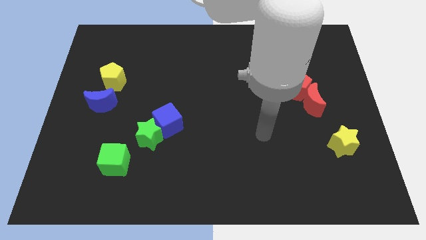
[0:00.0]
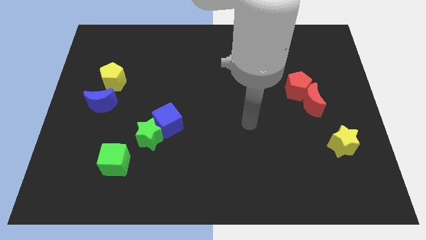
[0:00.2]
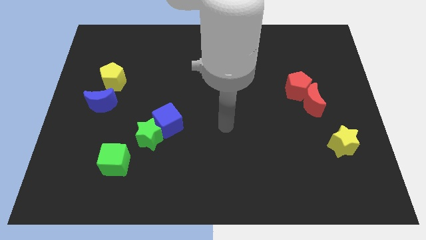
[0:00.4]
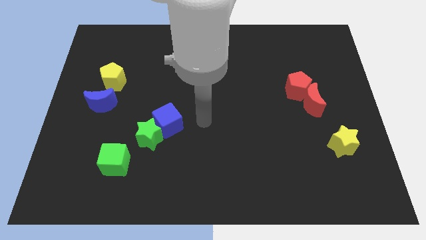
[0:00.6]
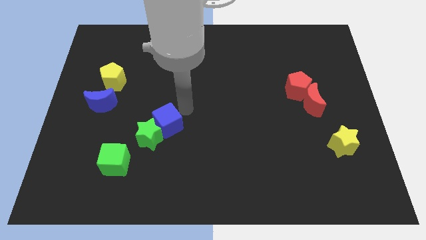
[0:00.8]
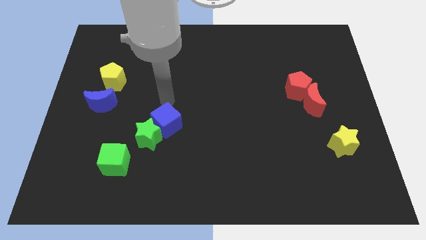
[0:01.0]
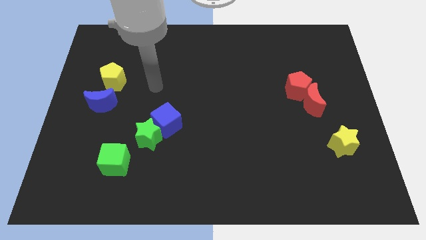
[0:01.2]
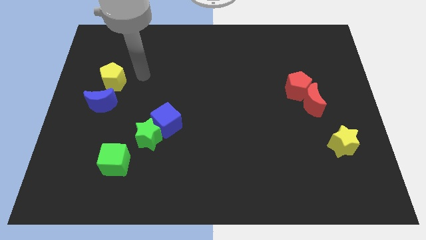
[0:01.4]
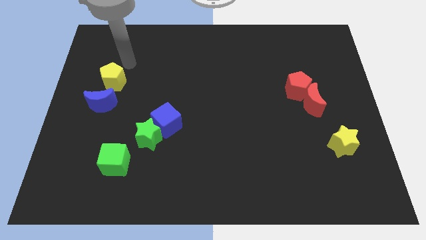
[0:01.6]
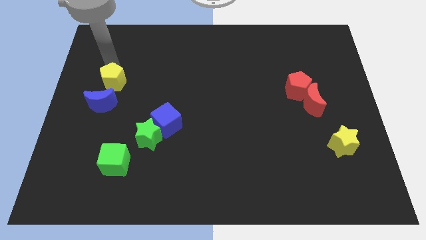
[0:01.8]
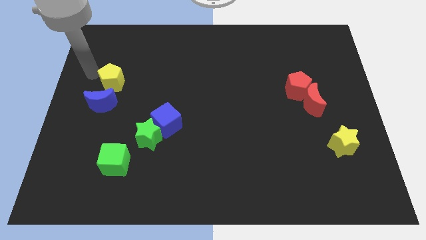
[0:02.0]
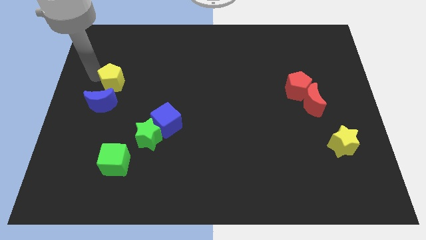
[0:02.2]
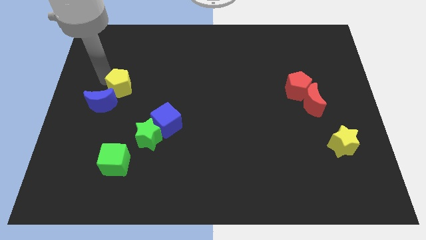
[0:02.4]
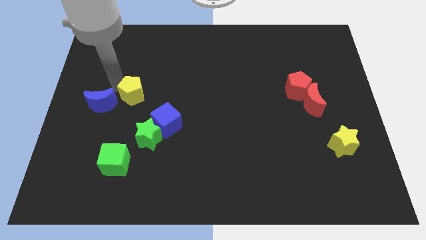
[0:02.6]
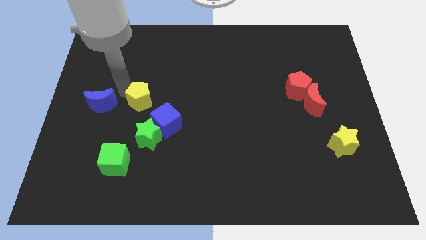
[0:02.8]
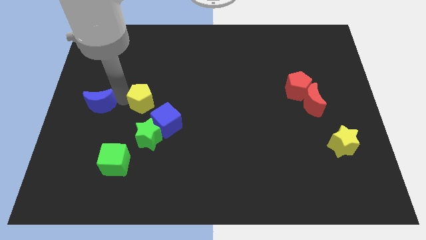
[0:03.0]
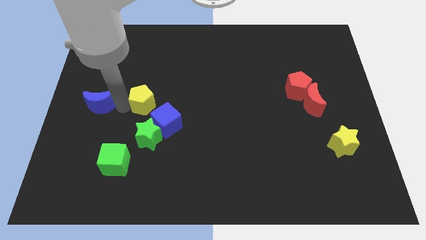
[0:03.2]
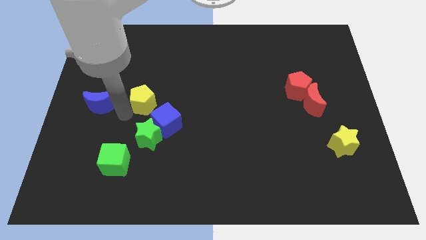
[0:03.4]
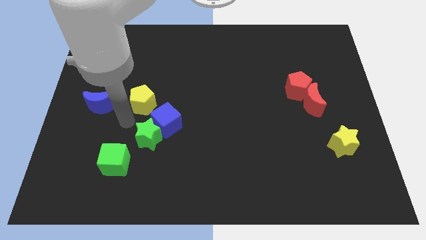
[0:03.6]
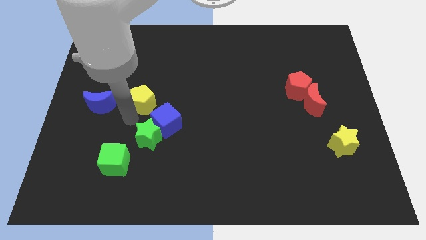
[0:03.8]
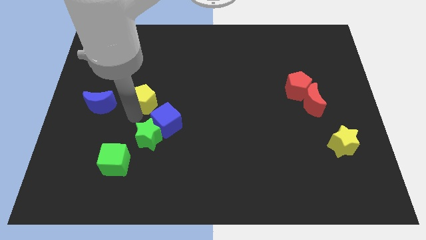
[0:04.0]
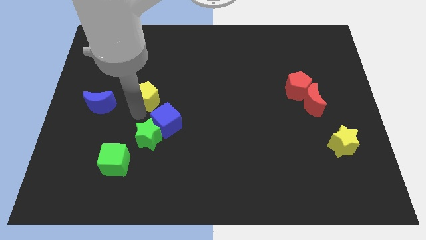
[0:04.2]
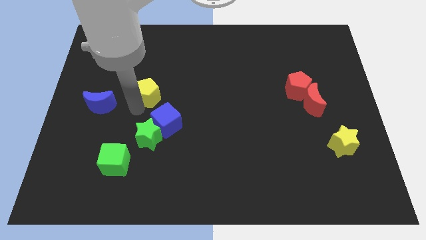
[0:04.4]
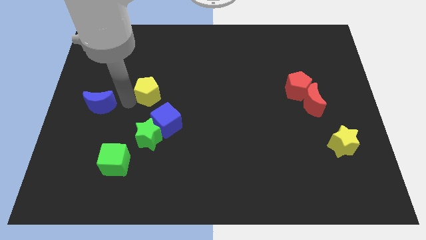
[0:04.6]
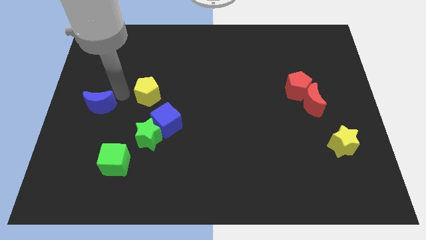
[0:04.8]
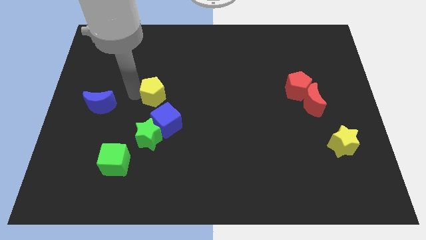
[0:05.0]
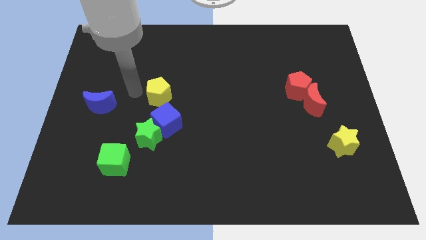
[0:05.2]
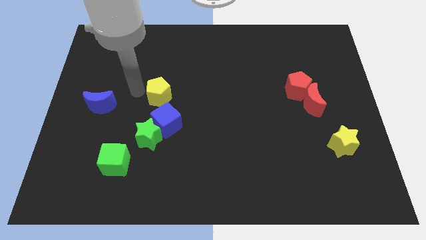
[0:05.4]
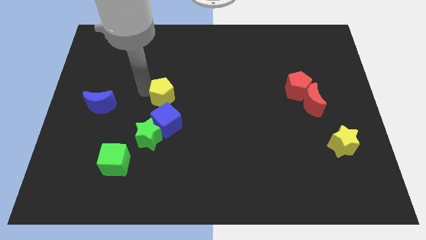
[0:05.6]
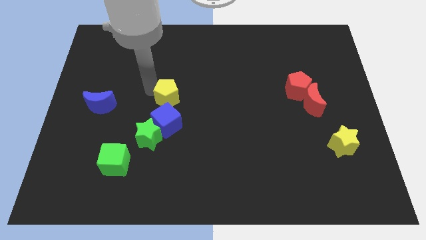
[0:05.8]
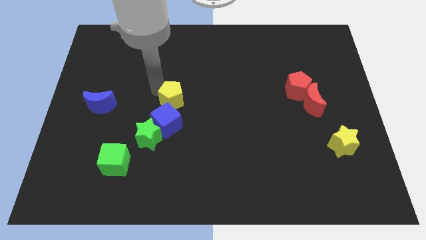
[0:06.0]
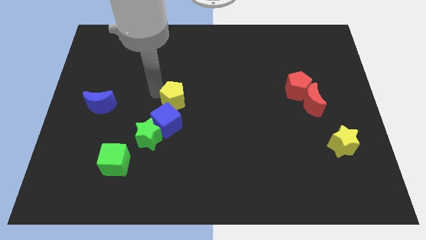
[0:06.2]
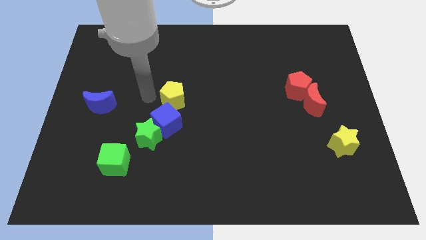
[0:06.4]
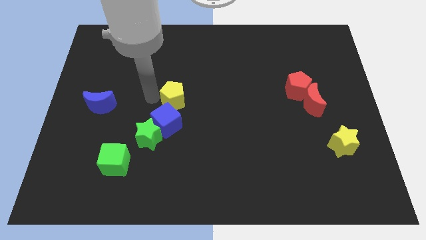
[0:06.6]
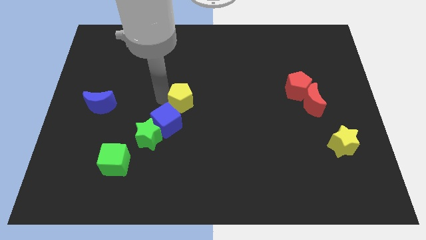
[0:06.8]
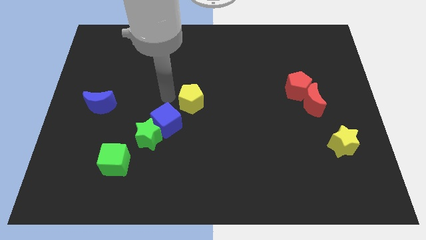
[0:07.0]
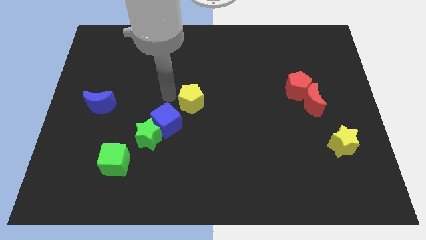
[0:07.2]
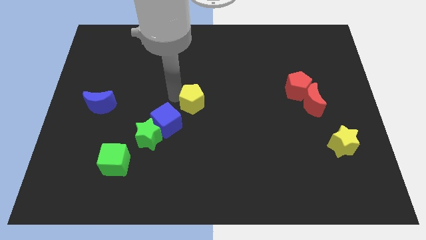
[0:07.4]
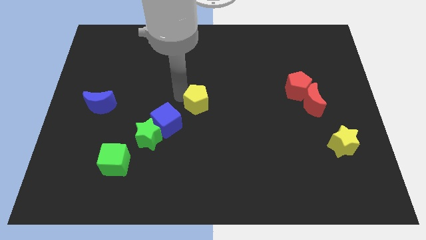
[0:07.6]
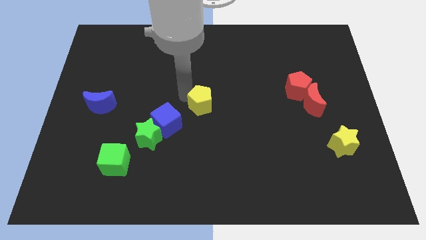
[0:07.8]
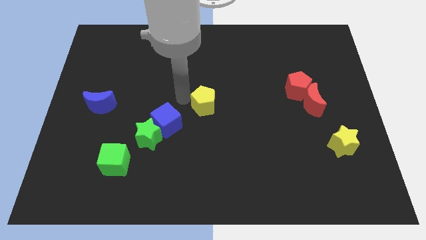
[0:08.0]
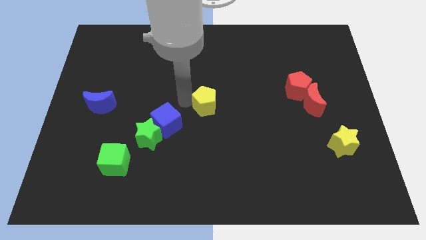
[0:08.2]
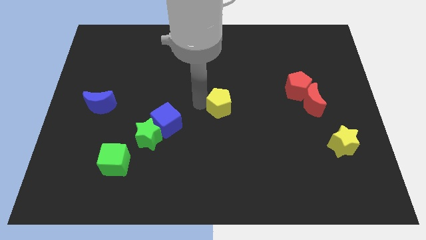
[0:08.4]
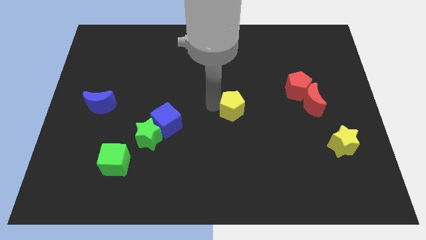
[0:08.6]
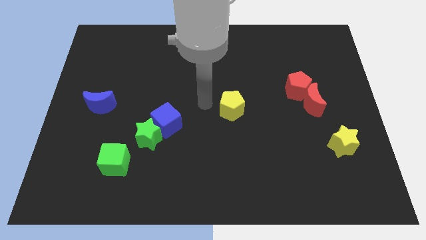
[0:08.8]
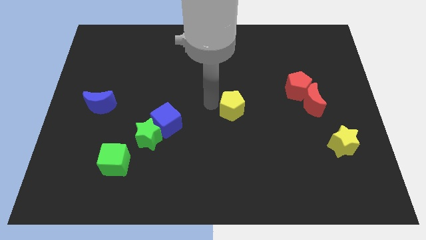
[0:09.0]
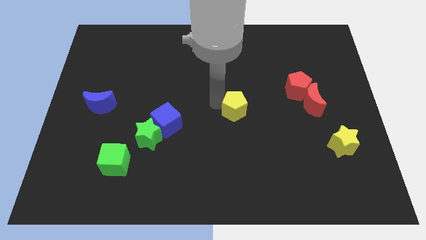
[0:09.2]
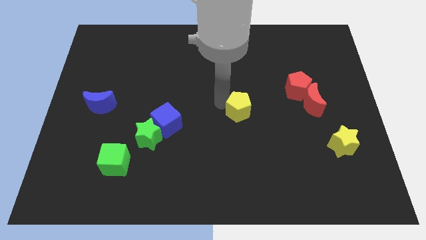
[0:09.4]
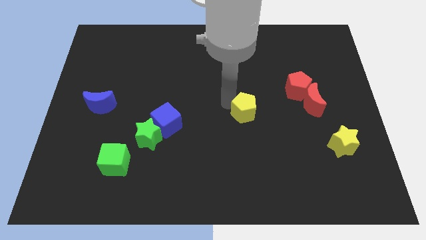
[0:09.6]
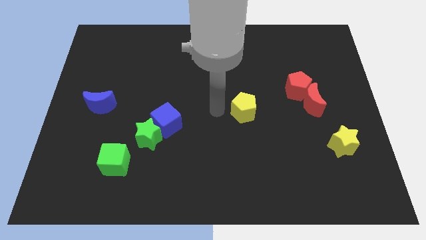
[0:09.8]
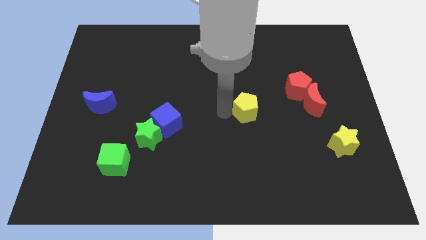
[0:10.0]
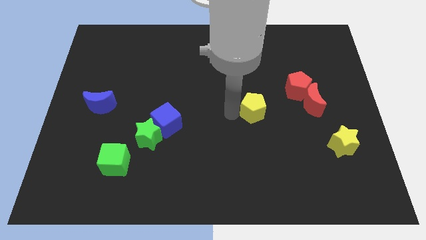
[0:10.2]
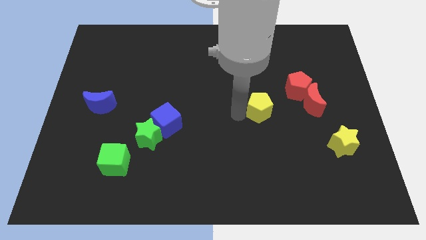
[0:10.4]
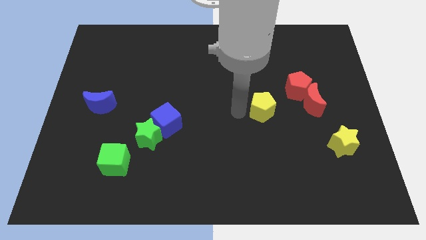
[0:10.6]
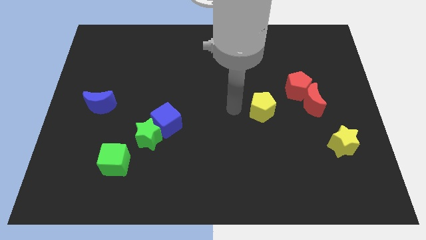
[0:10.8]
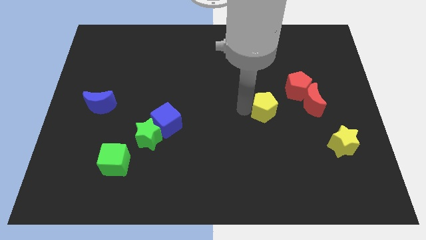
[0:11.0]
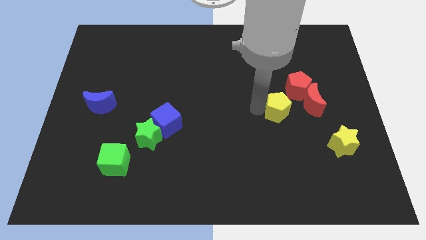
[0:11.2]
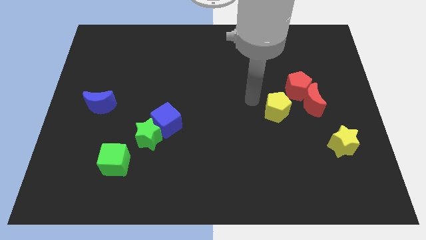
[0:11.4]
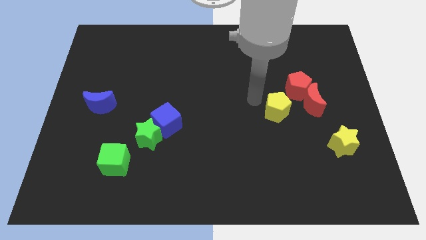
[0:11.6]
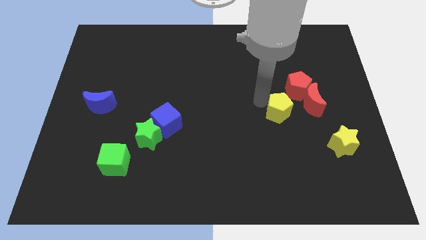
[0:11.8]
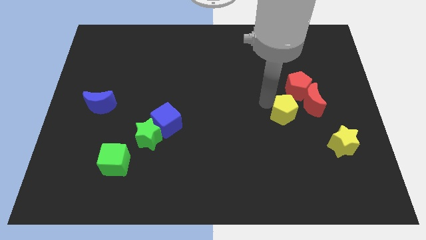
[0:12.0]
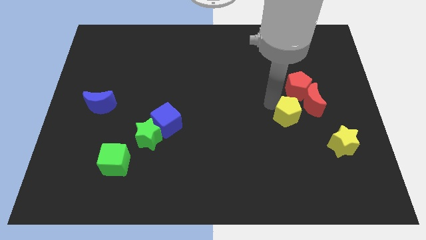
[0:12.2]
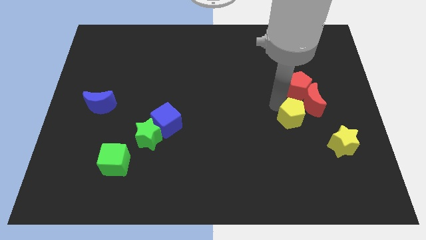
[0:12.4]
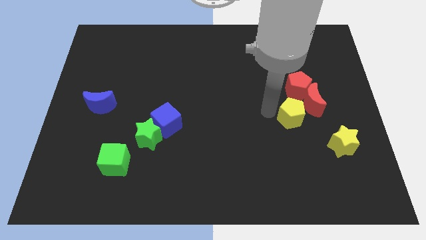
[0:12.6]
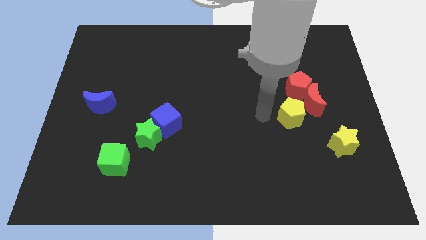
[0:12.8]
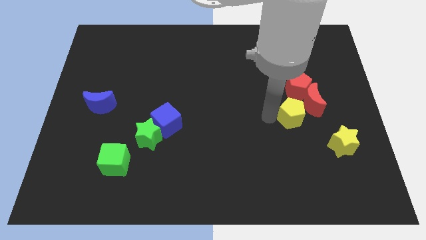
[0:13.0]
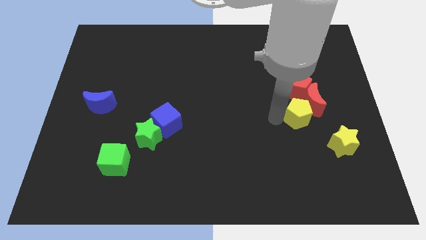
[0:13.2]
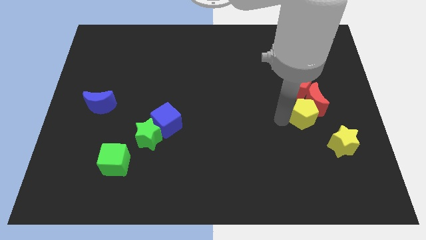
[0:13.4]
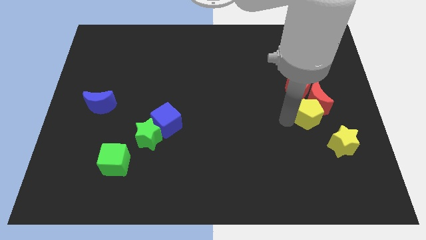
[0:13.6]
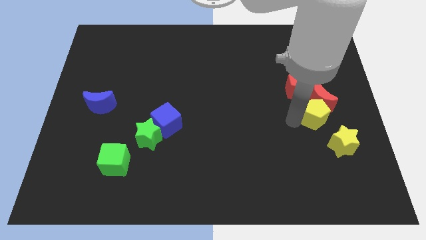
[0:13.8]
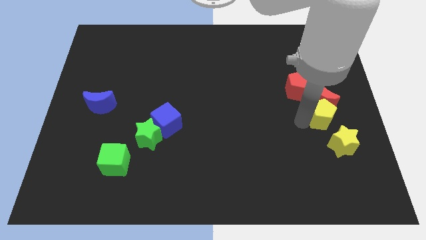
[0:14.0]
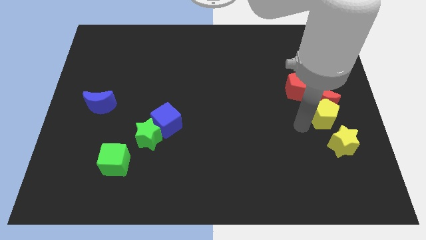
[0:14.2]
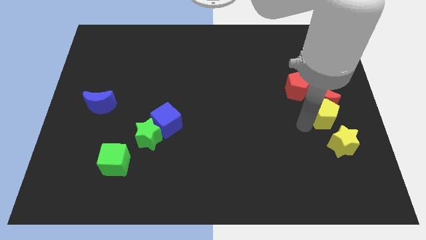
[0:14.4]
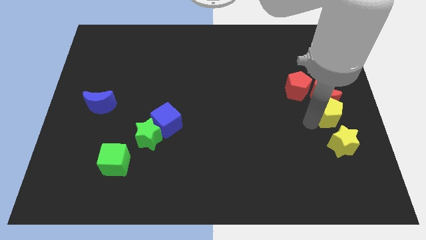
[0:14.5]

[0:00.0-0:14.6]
push the yellow pentagon to the right side of the board
